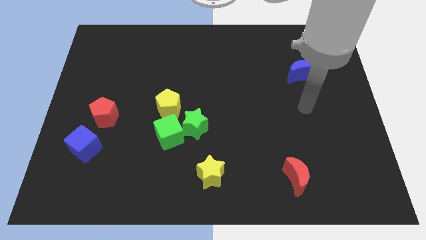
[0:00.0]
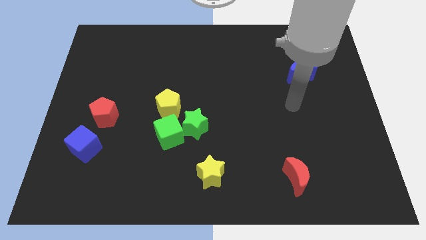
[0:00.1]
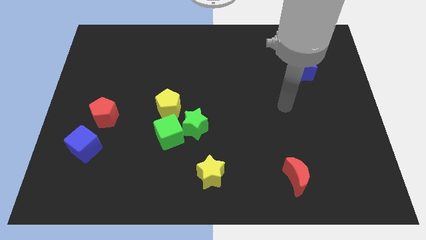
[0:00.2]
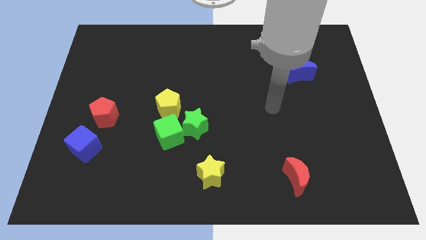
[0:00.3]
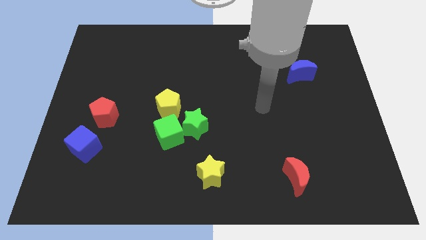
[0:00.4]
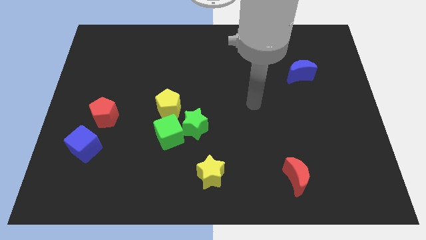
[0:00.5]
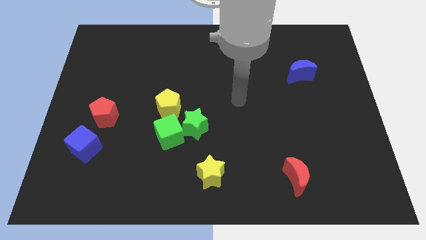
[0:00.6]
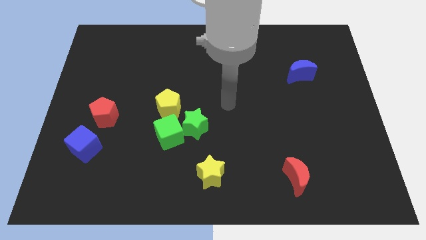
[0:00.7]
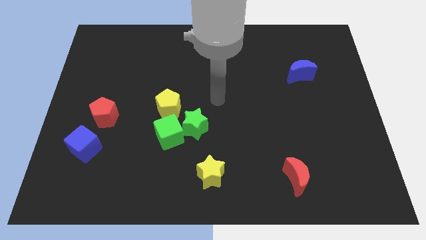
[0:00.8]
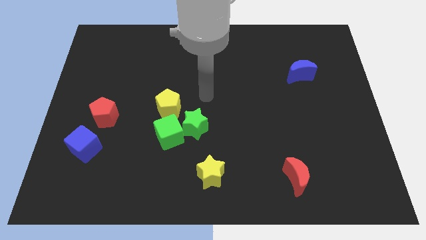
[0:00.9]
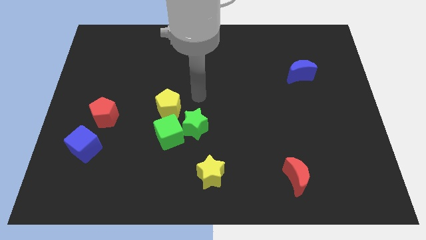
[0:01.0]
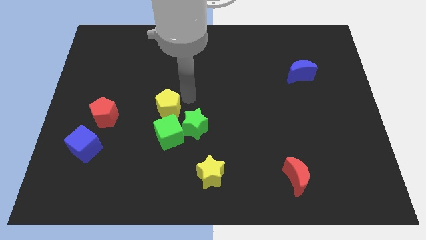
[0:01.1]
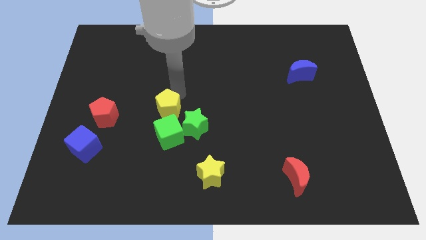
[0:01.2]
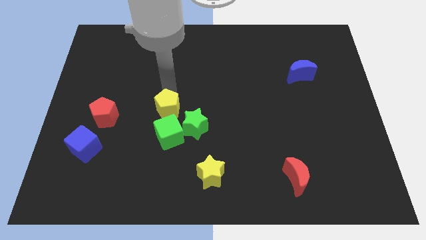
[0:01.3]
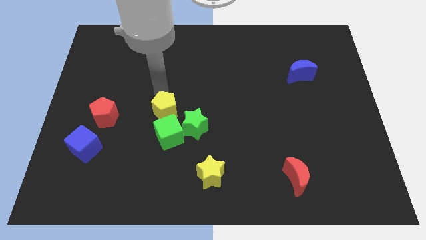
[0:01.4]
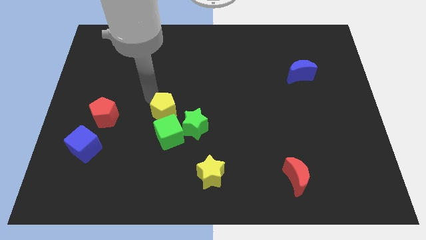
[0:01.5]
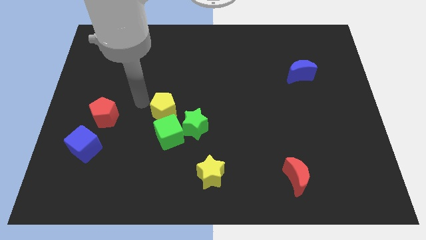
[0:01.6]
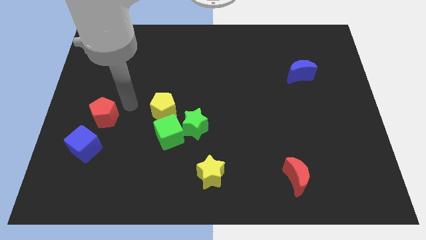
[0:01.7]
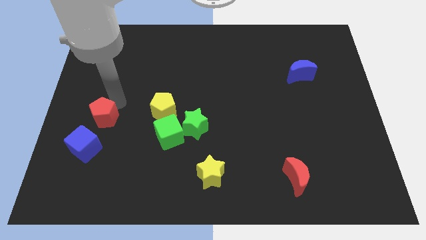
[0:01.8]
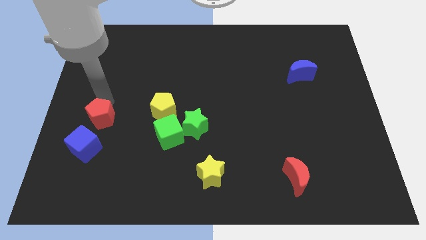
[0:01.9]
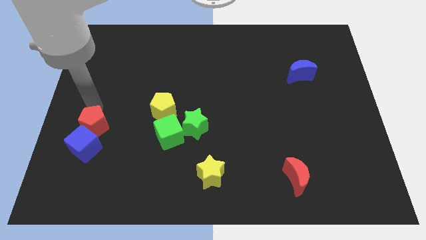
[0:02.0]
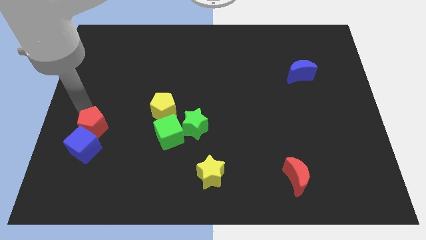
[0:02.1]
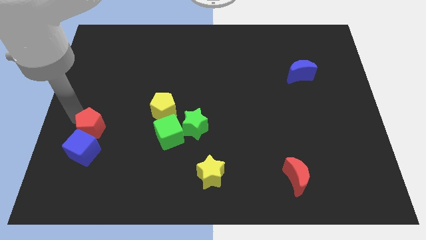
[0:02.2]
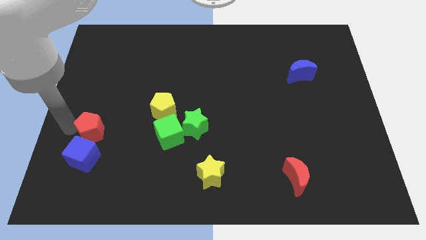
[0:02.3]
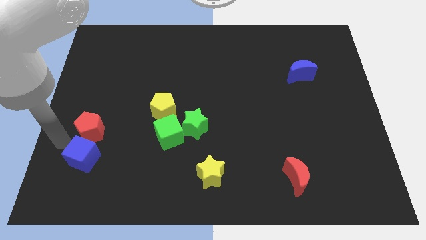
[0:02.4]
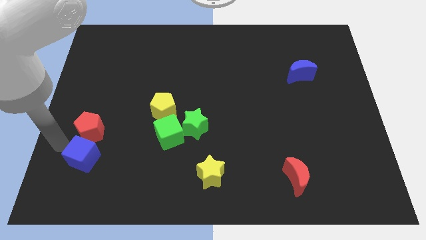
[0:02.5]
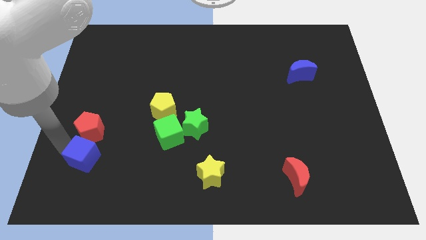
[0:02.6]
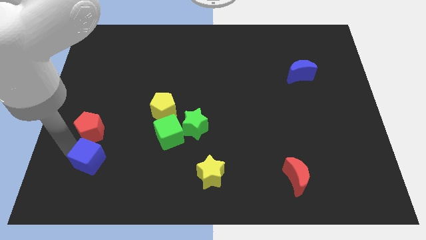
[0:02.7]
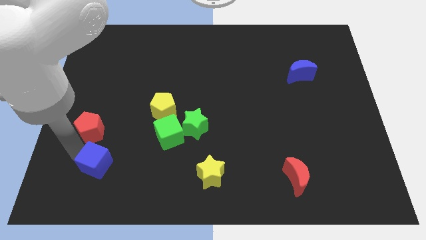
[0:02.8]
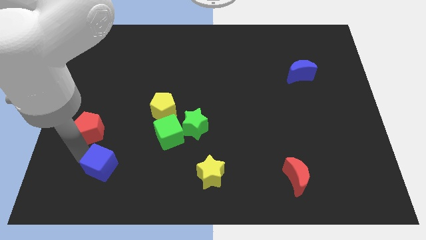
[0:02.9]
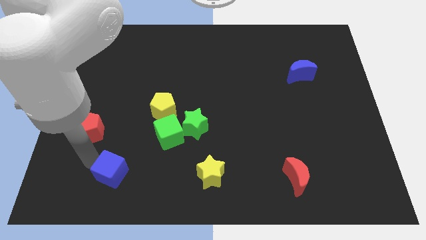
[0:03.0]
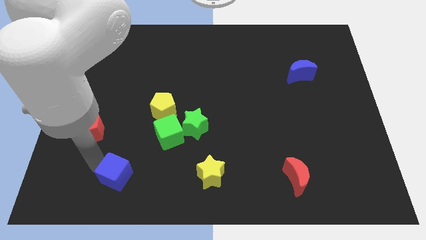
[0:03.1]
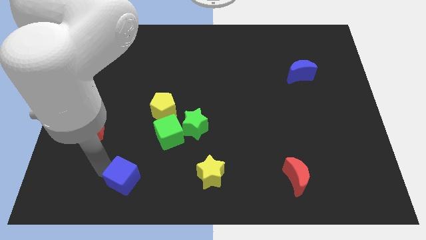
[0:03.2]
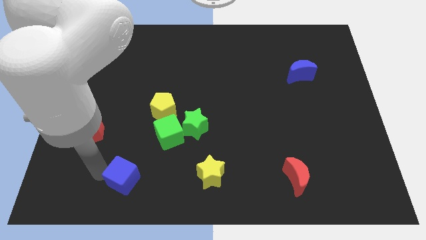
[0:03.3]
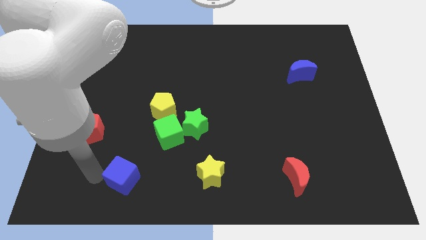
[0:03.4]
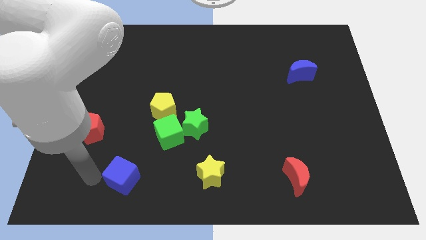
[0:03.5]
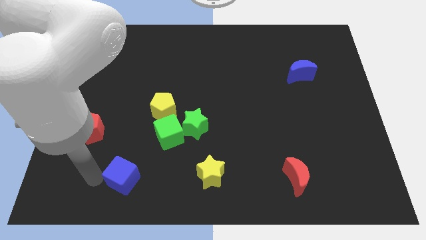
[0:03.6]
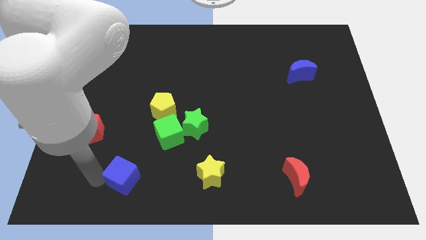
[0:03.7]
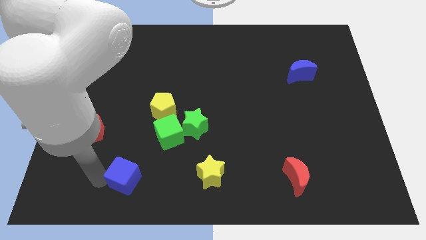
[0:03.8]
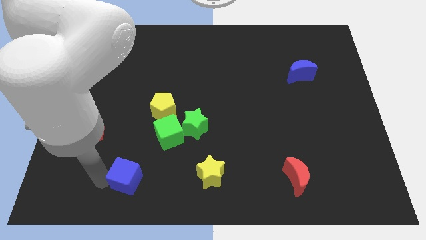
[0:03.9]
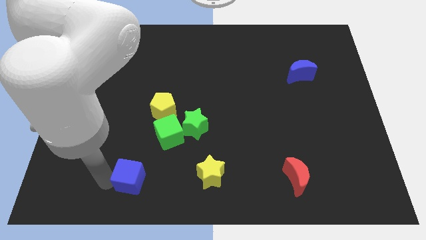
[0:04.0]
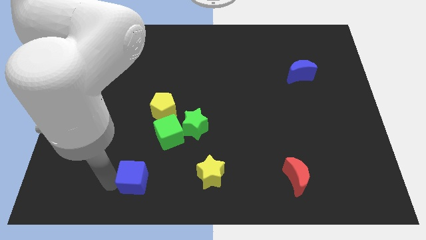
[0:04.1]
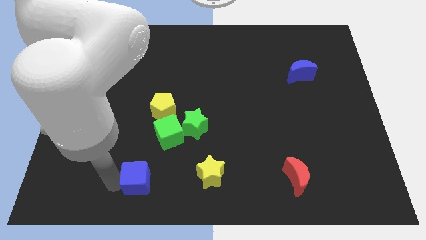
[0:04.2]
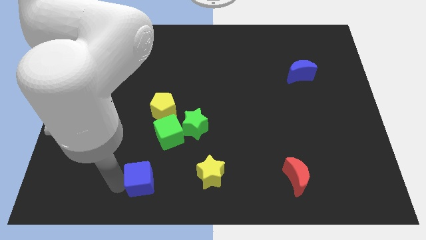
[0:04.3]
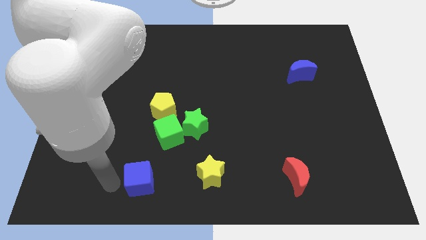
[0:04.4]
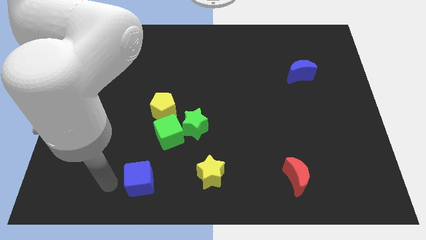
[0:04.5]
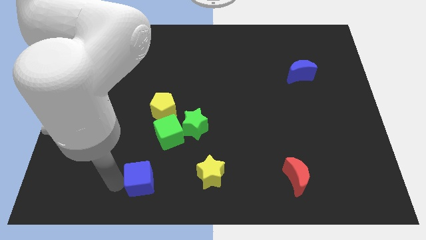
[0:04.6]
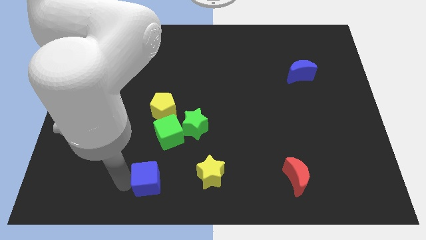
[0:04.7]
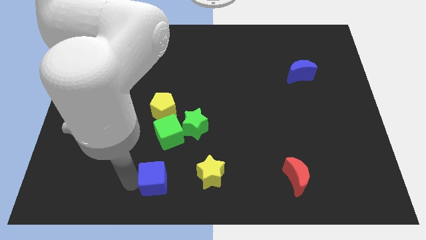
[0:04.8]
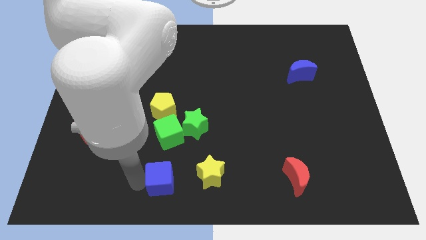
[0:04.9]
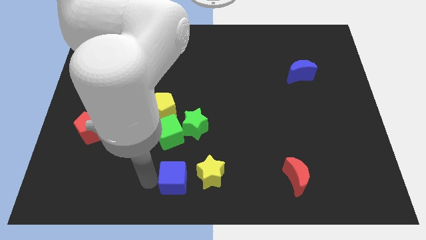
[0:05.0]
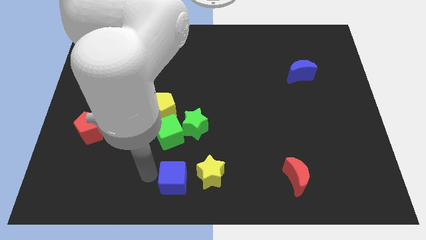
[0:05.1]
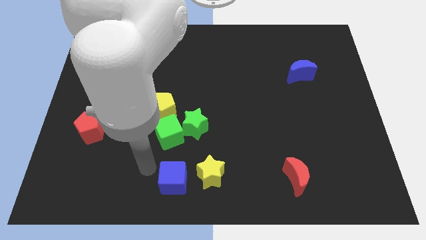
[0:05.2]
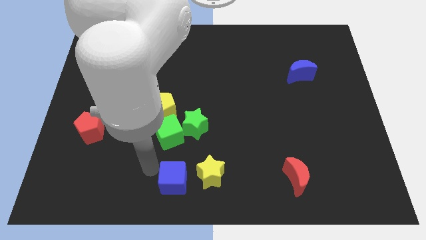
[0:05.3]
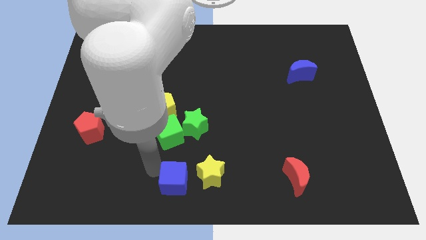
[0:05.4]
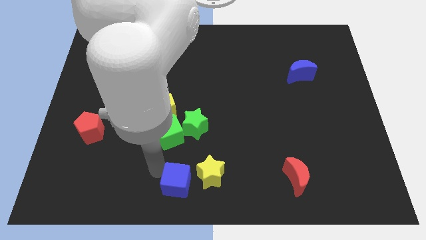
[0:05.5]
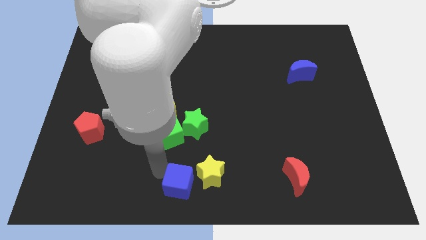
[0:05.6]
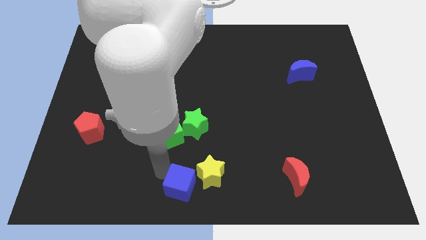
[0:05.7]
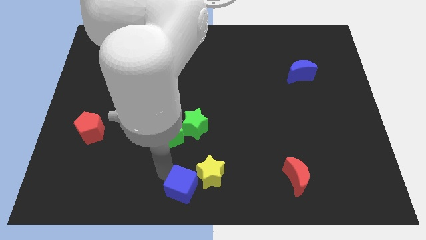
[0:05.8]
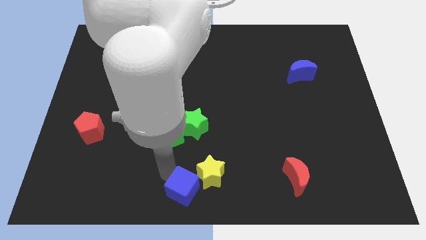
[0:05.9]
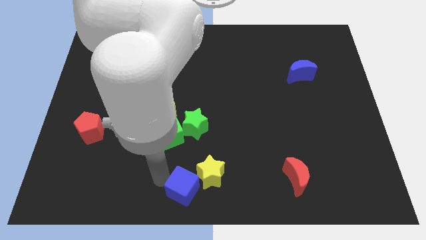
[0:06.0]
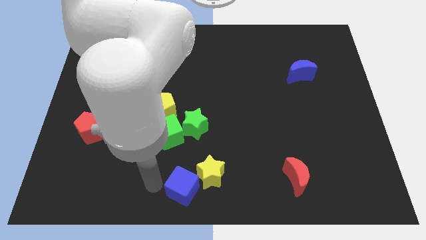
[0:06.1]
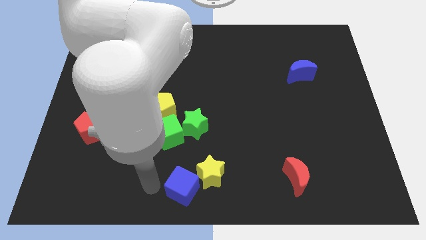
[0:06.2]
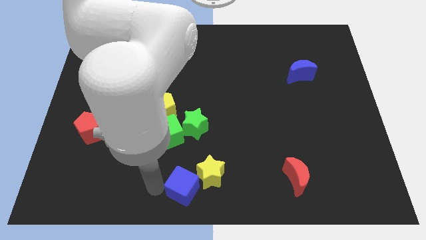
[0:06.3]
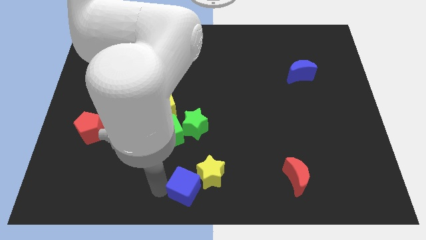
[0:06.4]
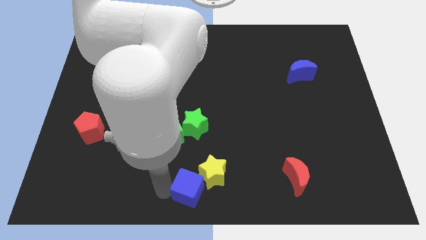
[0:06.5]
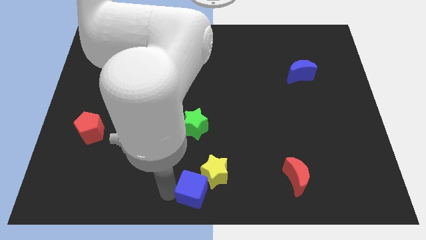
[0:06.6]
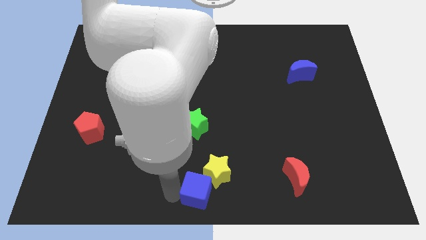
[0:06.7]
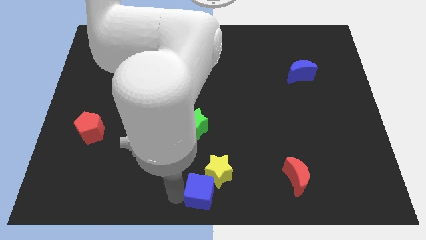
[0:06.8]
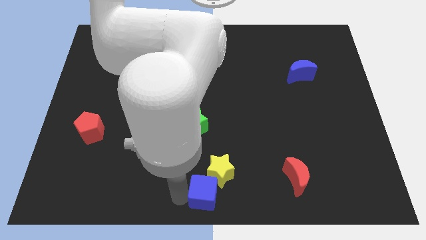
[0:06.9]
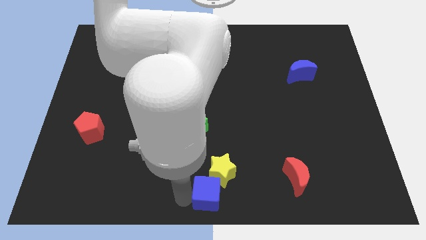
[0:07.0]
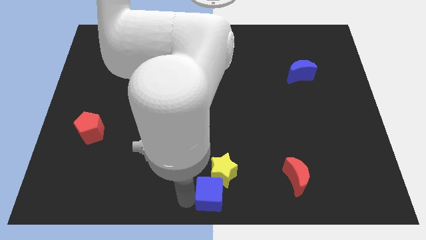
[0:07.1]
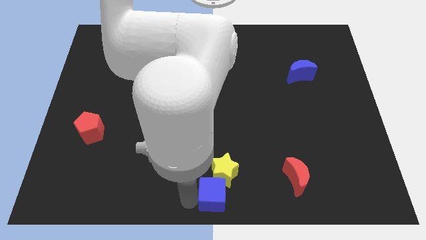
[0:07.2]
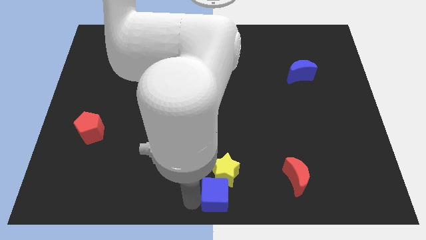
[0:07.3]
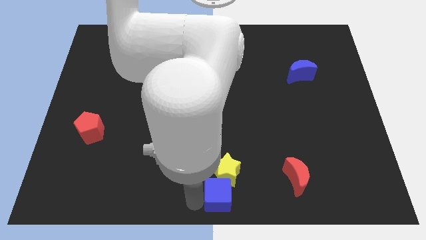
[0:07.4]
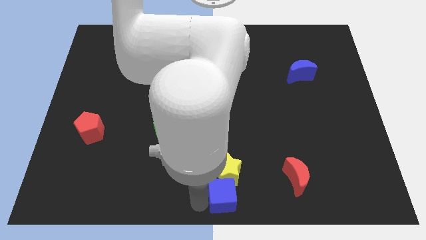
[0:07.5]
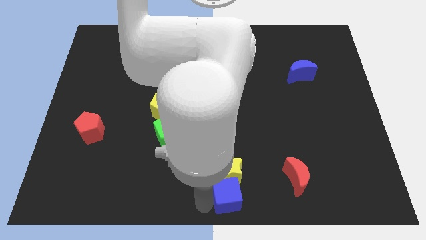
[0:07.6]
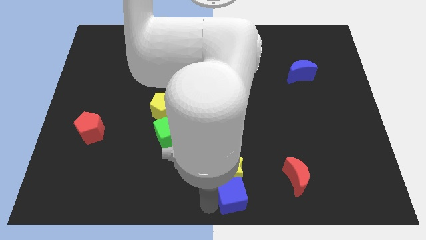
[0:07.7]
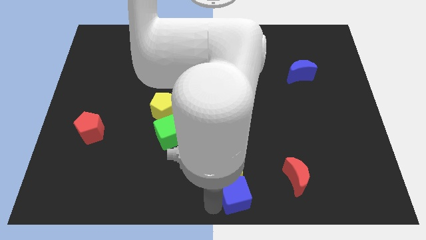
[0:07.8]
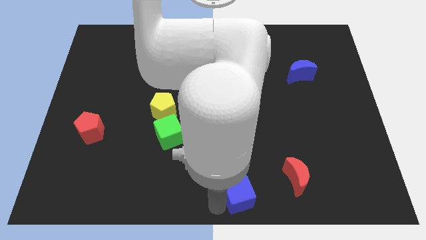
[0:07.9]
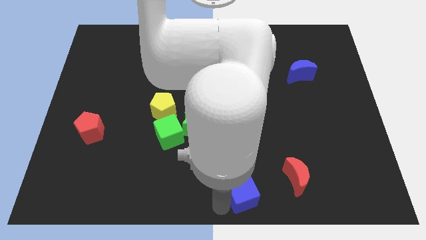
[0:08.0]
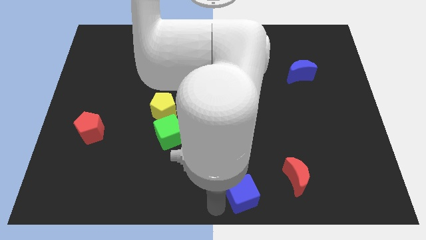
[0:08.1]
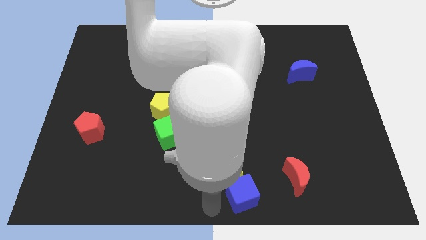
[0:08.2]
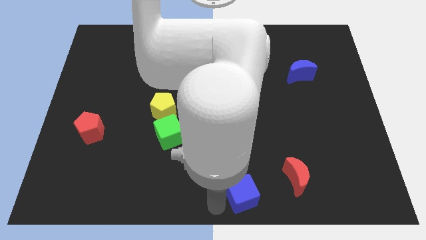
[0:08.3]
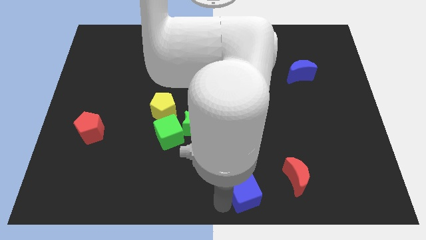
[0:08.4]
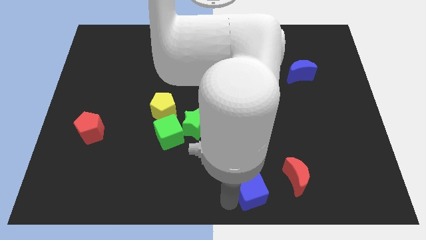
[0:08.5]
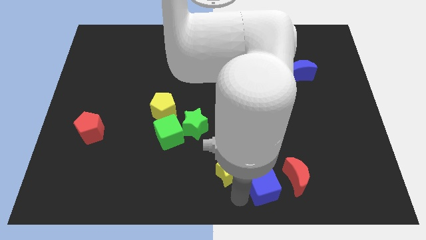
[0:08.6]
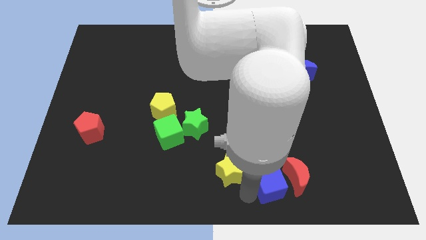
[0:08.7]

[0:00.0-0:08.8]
push the blue cube close to the red moon
